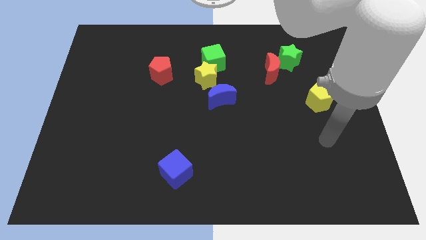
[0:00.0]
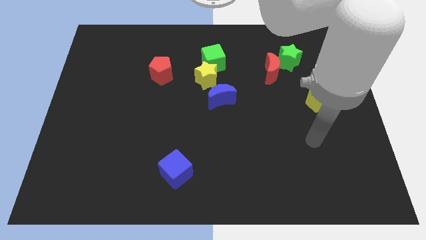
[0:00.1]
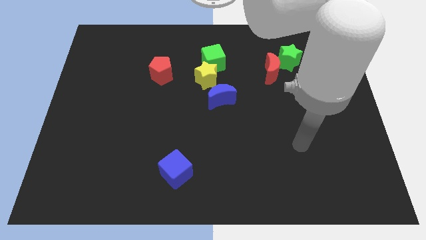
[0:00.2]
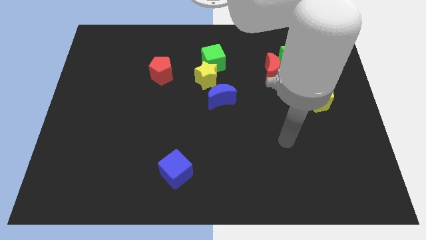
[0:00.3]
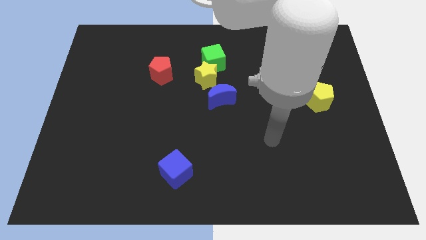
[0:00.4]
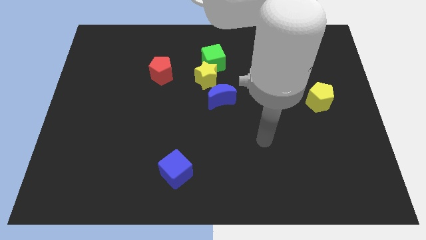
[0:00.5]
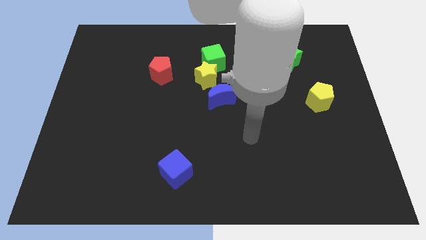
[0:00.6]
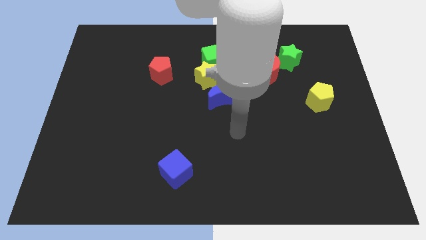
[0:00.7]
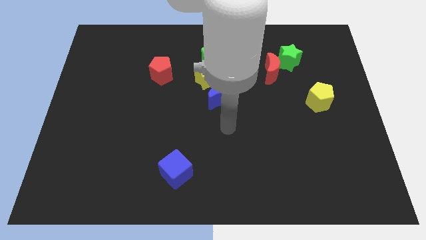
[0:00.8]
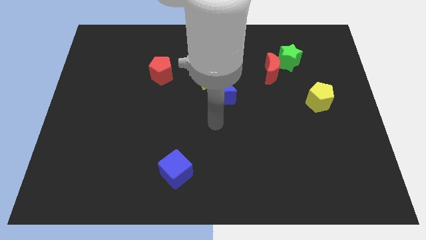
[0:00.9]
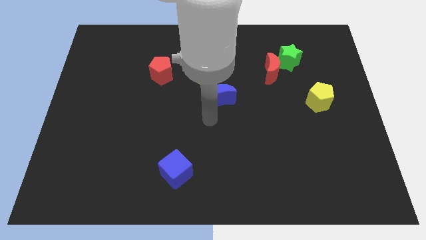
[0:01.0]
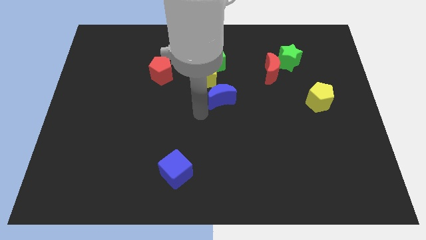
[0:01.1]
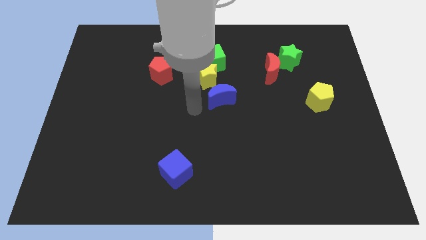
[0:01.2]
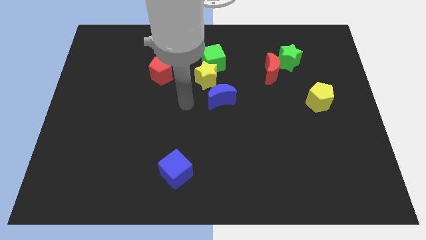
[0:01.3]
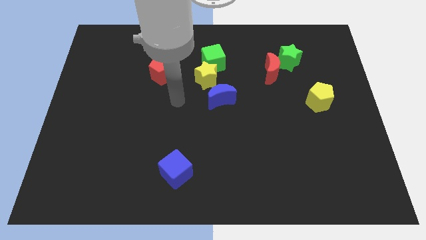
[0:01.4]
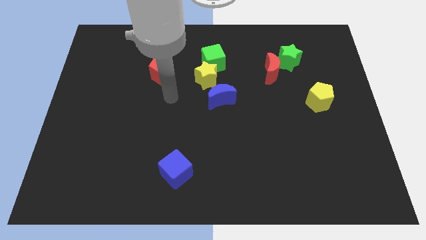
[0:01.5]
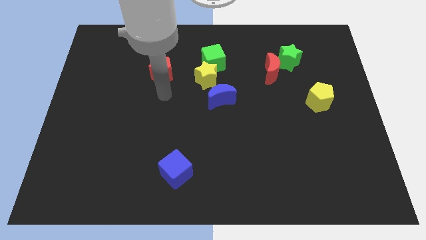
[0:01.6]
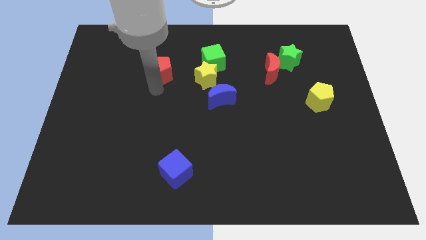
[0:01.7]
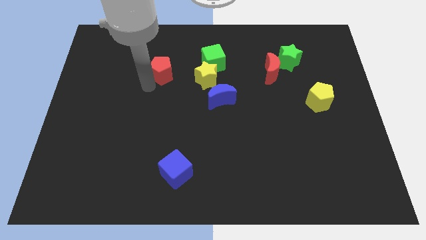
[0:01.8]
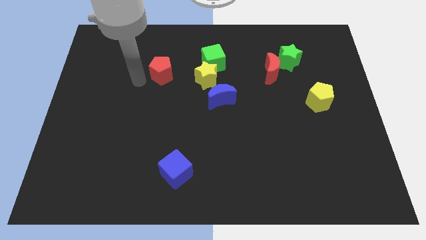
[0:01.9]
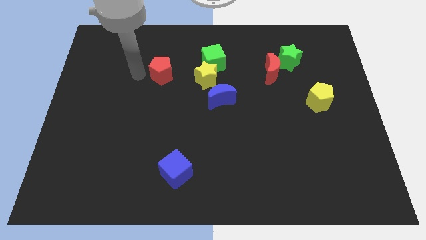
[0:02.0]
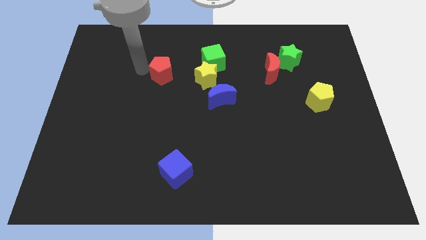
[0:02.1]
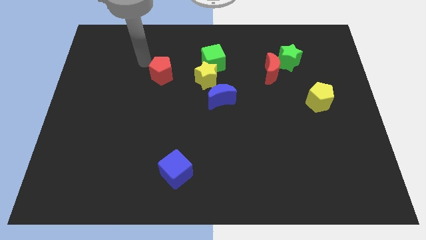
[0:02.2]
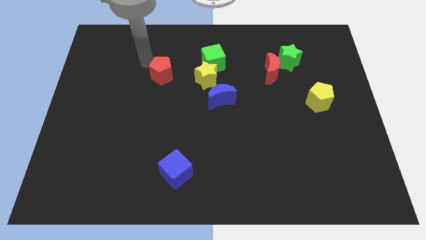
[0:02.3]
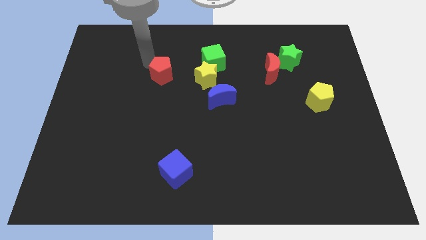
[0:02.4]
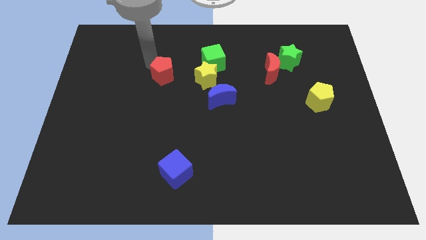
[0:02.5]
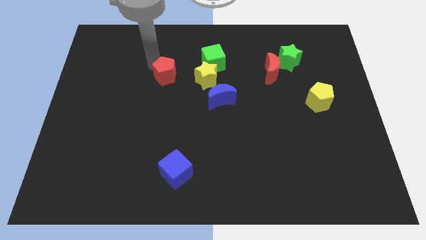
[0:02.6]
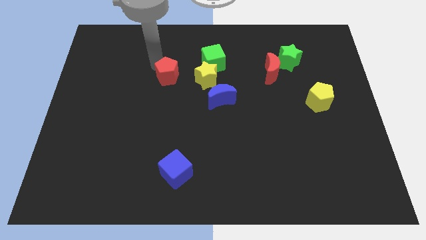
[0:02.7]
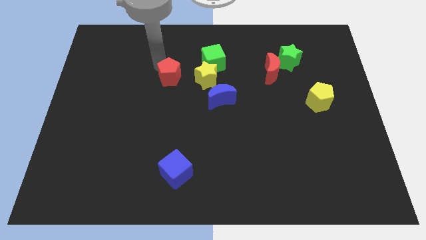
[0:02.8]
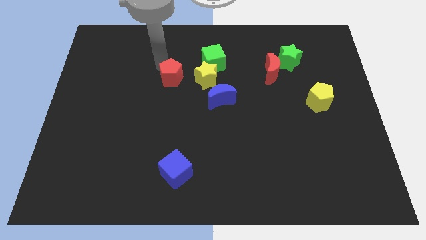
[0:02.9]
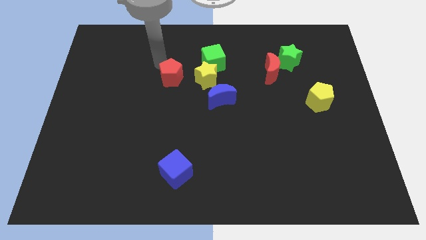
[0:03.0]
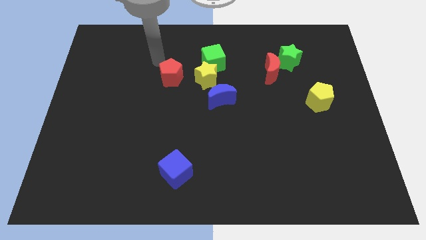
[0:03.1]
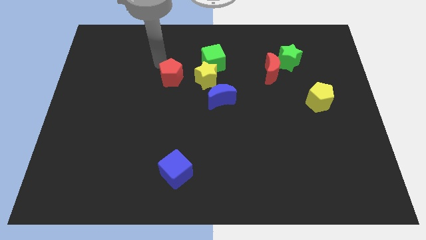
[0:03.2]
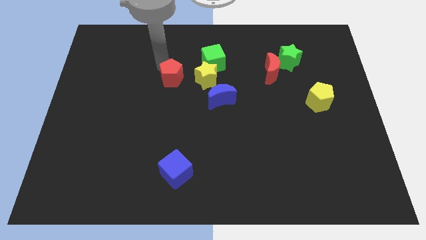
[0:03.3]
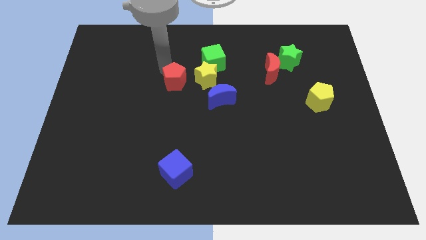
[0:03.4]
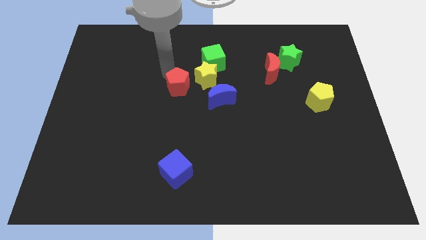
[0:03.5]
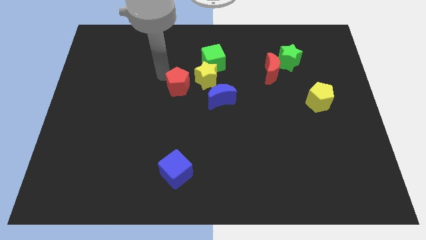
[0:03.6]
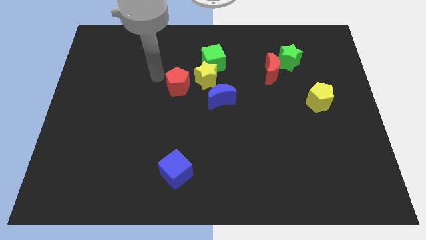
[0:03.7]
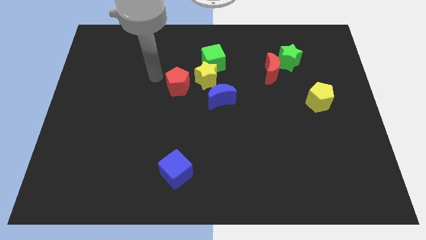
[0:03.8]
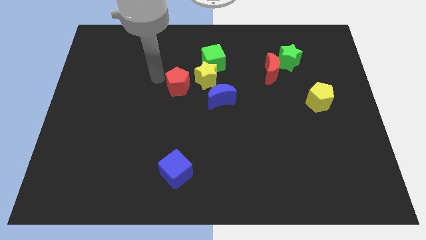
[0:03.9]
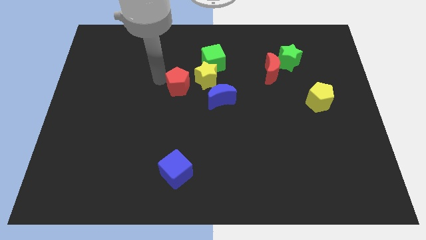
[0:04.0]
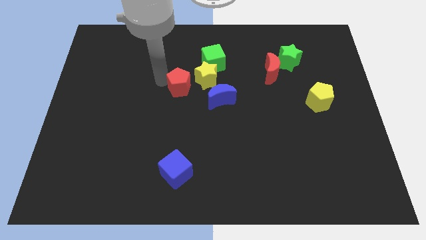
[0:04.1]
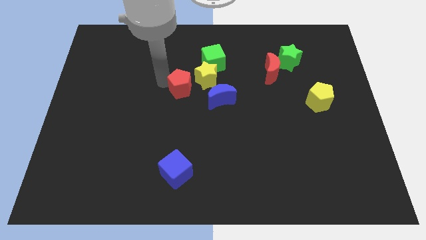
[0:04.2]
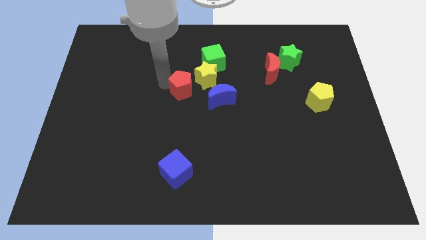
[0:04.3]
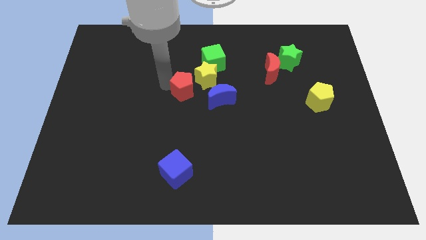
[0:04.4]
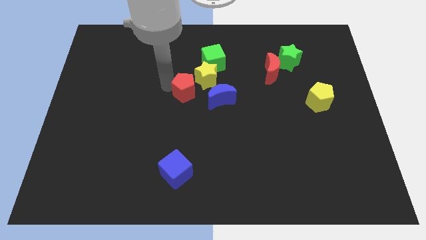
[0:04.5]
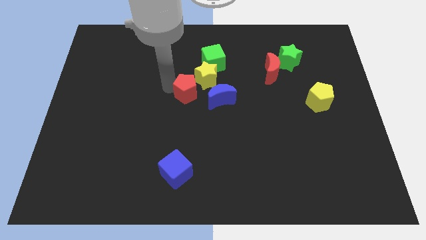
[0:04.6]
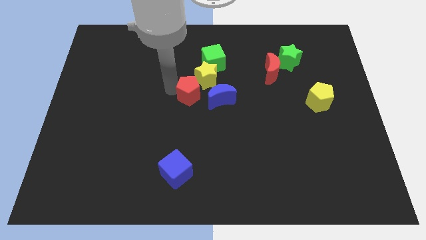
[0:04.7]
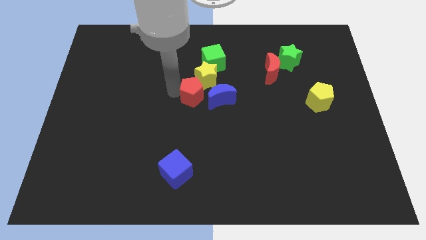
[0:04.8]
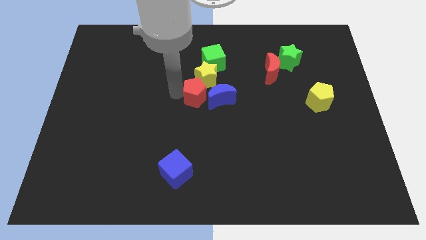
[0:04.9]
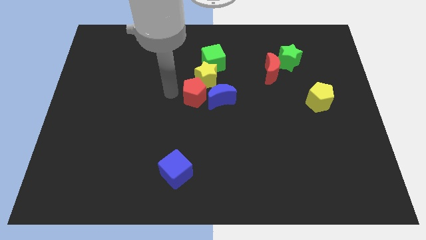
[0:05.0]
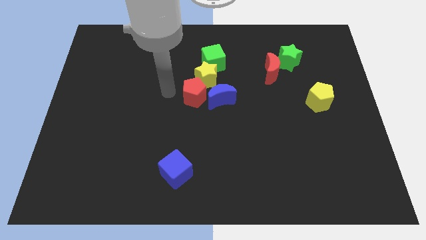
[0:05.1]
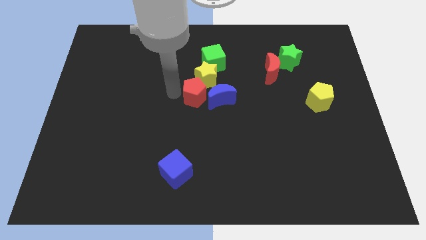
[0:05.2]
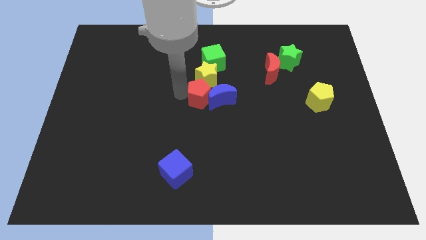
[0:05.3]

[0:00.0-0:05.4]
slide the red pentagon next to the blue moon

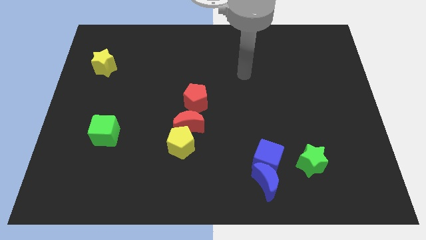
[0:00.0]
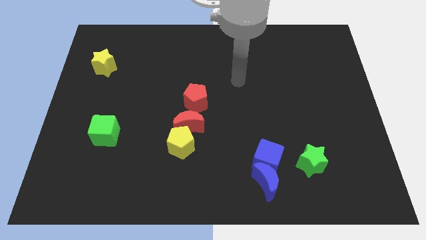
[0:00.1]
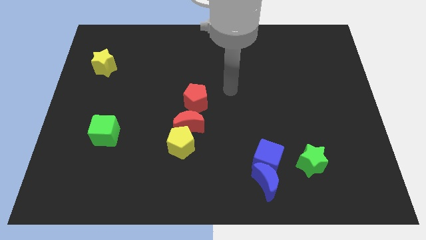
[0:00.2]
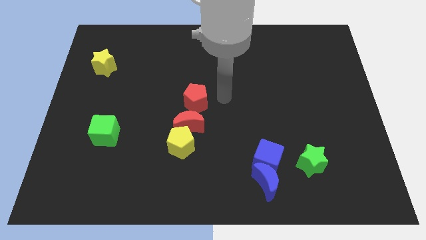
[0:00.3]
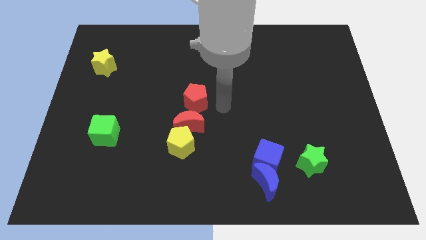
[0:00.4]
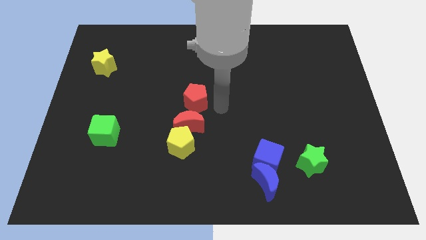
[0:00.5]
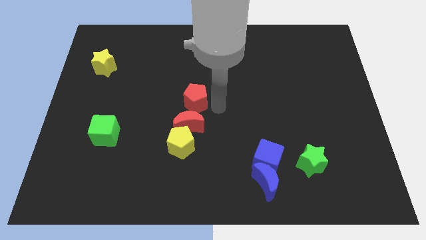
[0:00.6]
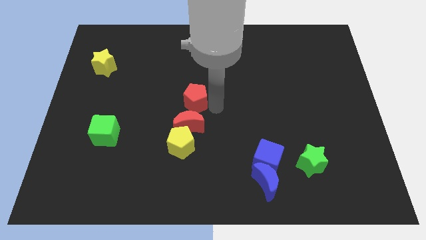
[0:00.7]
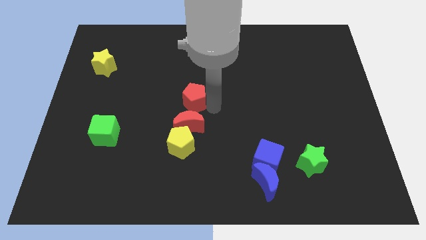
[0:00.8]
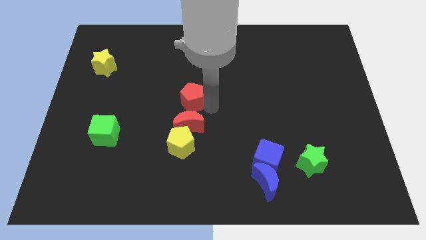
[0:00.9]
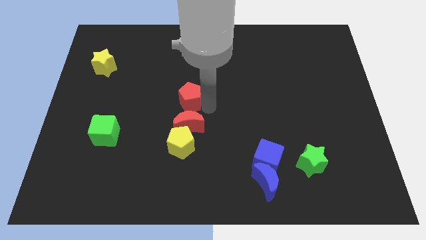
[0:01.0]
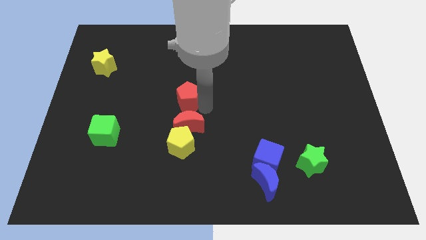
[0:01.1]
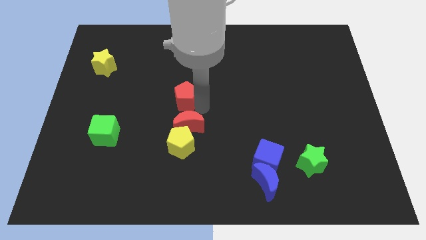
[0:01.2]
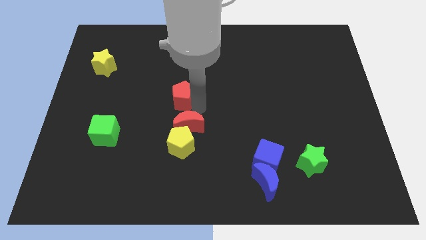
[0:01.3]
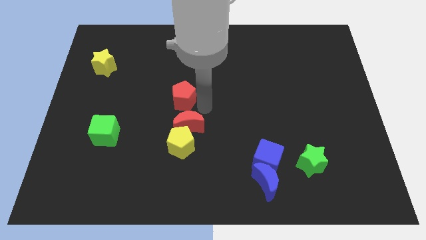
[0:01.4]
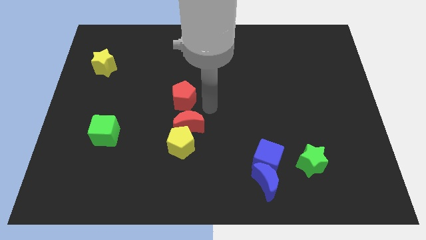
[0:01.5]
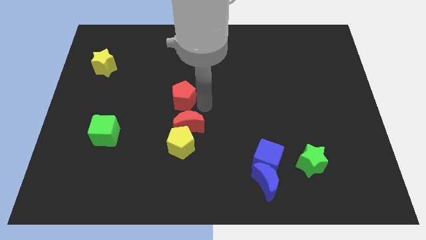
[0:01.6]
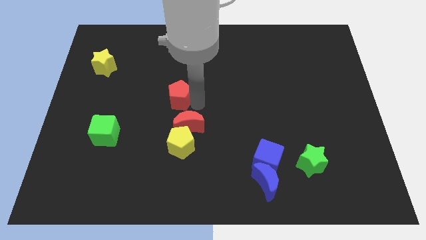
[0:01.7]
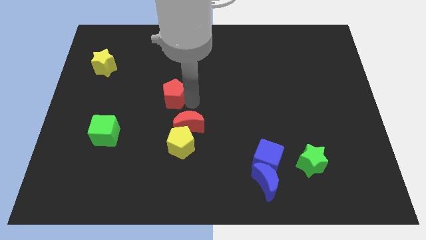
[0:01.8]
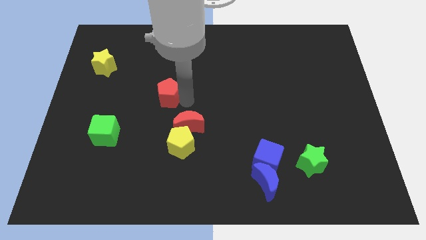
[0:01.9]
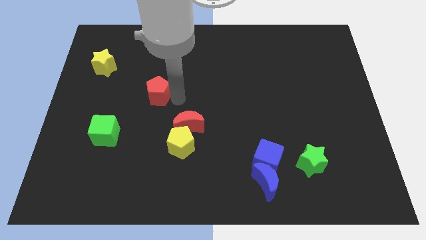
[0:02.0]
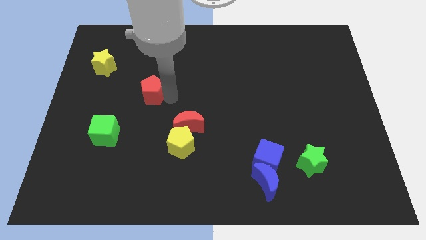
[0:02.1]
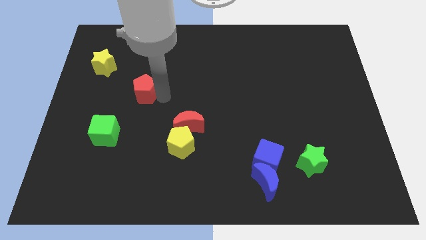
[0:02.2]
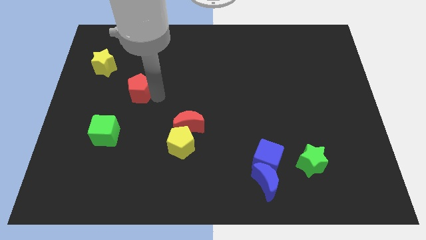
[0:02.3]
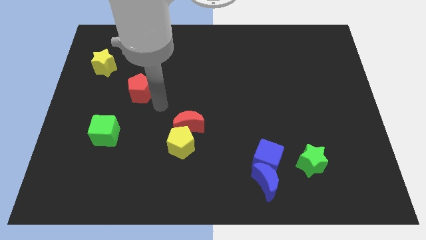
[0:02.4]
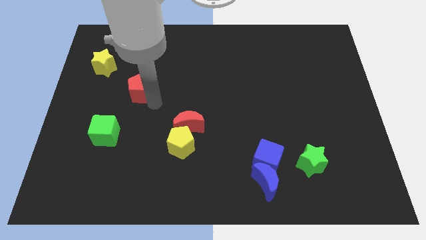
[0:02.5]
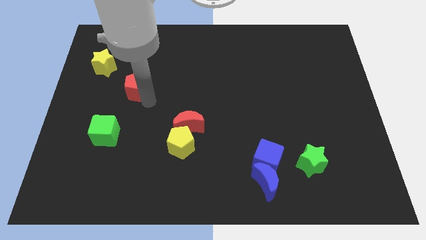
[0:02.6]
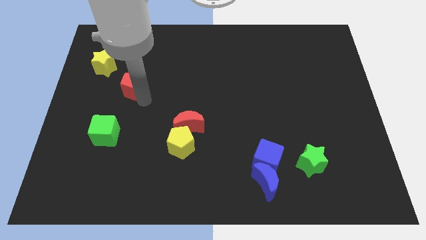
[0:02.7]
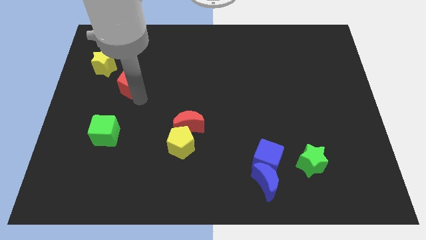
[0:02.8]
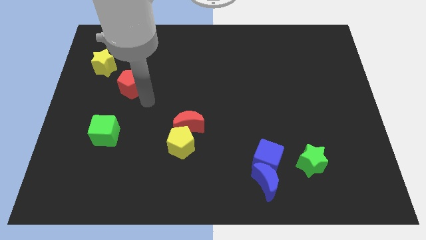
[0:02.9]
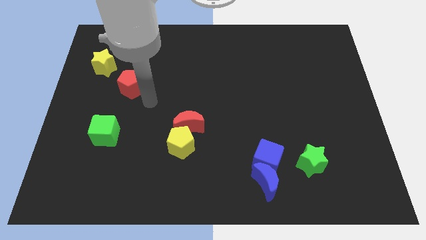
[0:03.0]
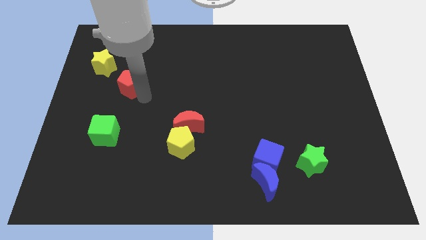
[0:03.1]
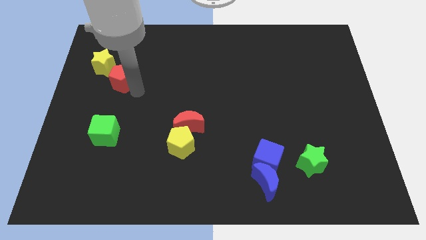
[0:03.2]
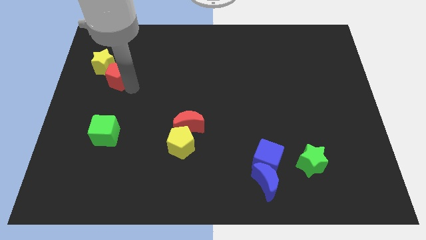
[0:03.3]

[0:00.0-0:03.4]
push the red pentagon towards the yellow star
